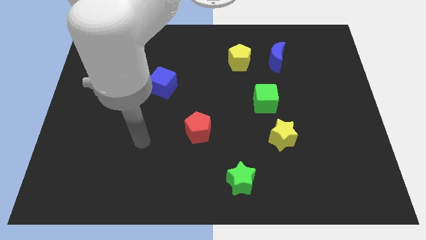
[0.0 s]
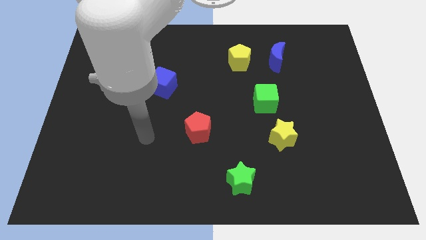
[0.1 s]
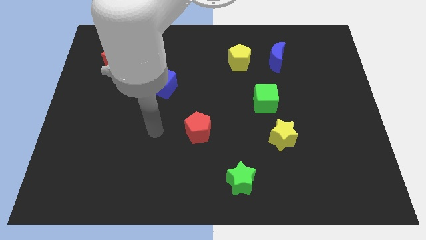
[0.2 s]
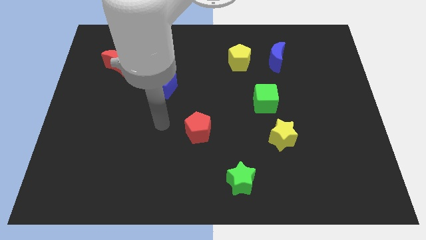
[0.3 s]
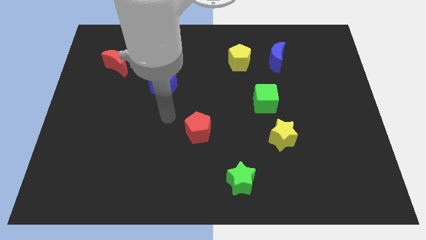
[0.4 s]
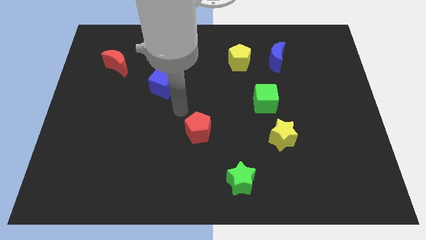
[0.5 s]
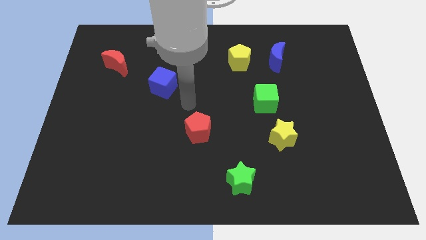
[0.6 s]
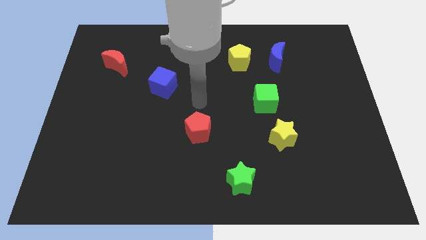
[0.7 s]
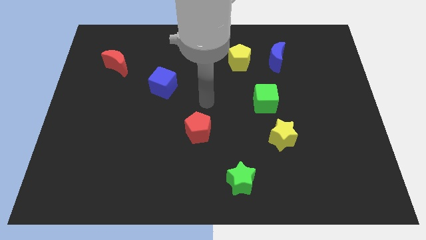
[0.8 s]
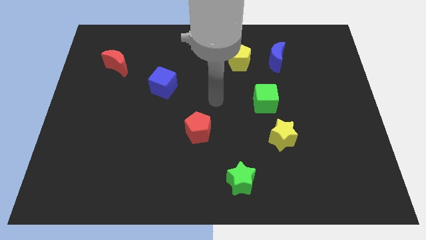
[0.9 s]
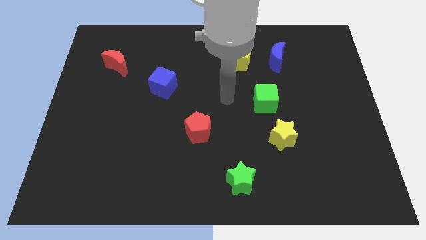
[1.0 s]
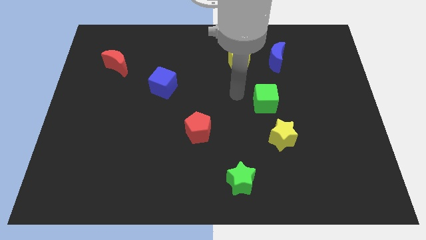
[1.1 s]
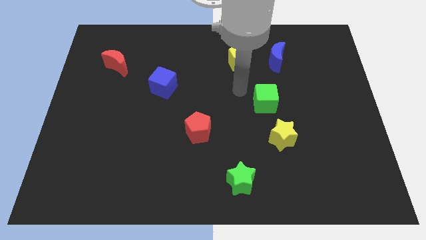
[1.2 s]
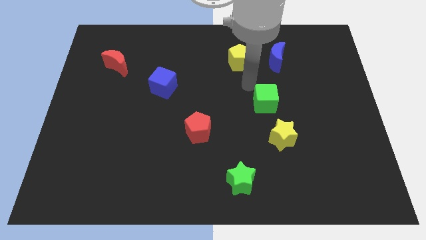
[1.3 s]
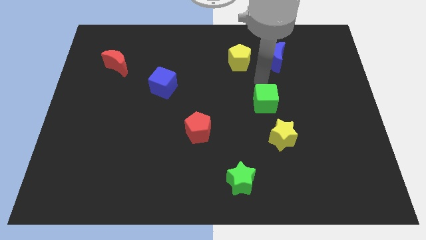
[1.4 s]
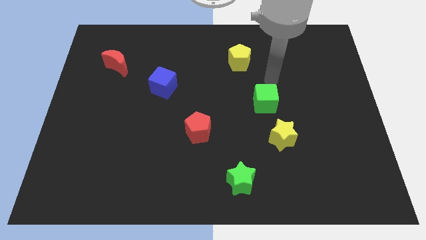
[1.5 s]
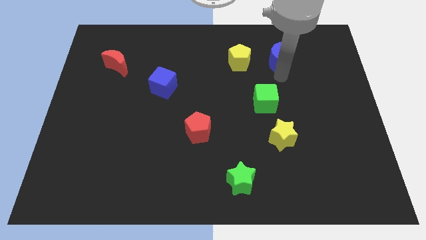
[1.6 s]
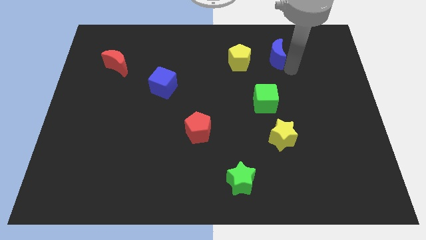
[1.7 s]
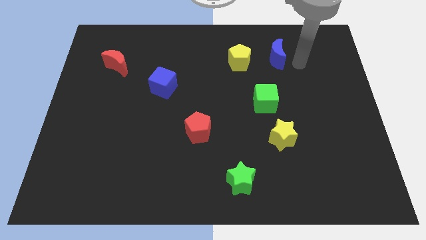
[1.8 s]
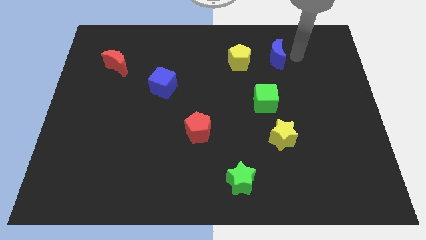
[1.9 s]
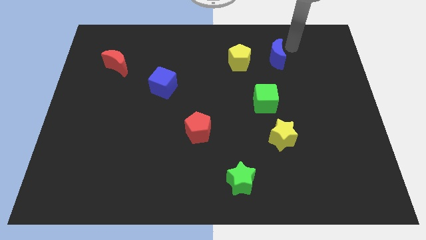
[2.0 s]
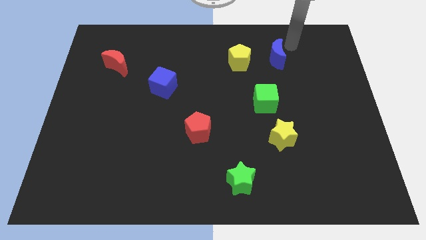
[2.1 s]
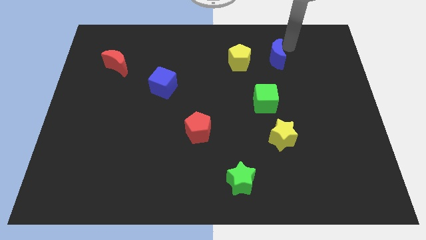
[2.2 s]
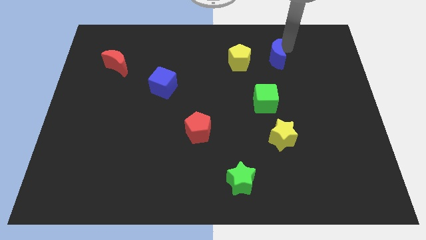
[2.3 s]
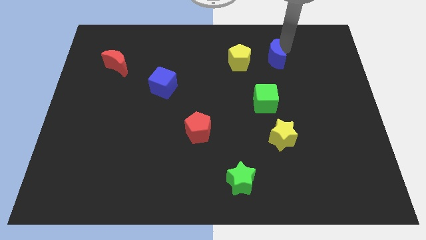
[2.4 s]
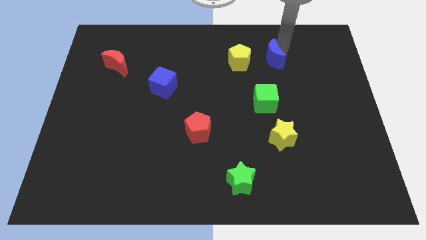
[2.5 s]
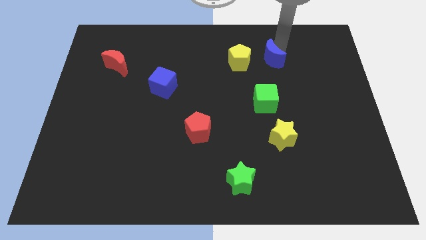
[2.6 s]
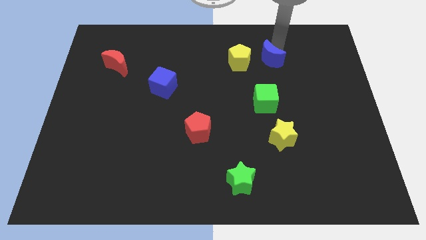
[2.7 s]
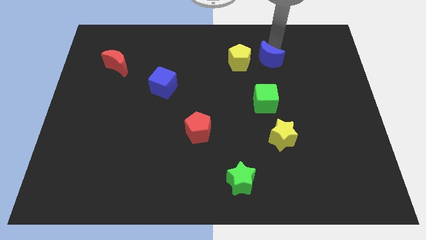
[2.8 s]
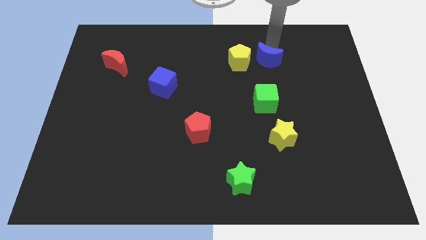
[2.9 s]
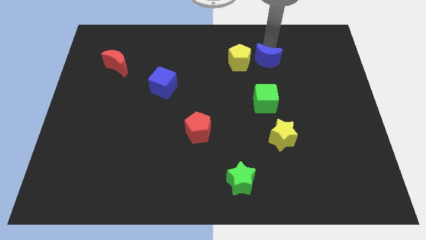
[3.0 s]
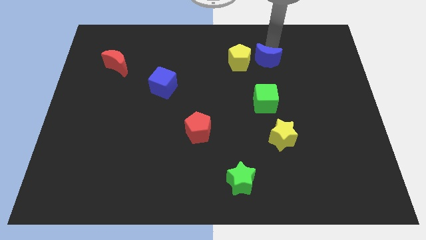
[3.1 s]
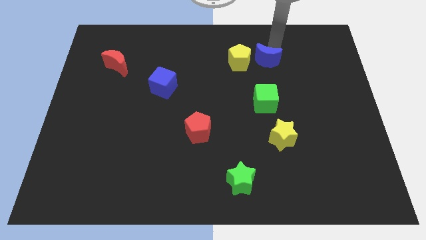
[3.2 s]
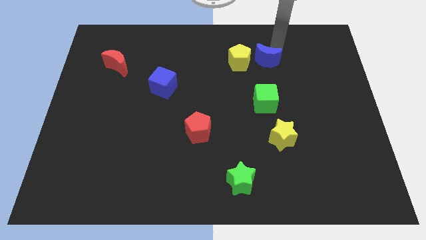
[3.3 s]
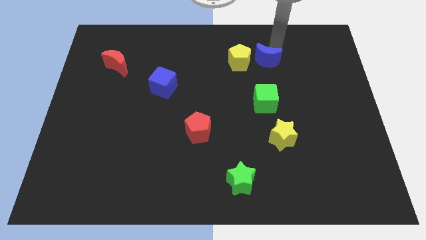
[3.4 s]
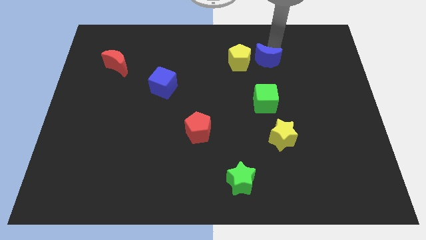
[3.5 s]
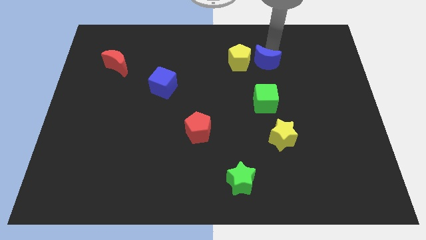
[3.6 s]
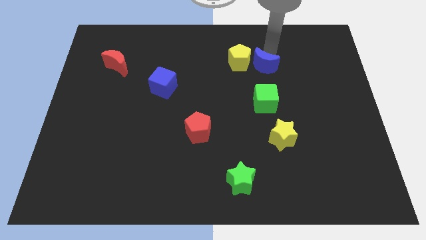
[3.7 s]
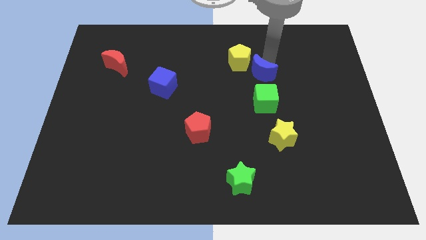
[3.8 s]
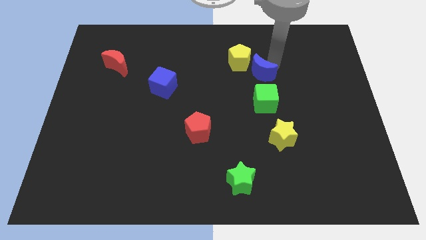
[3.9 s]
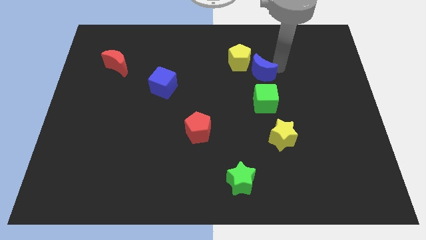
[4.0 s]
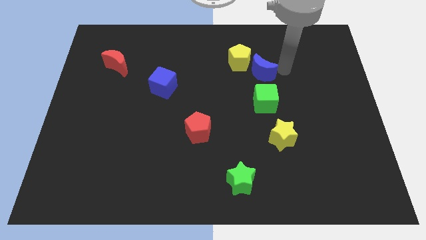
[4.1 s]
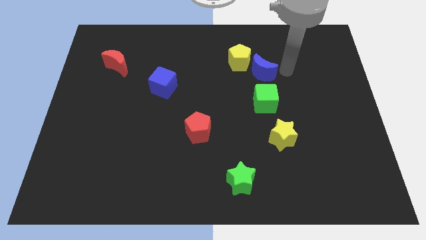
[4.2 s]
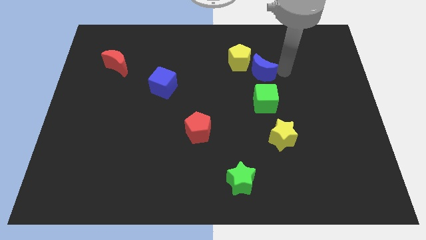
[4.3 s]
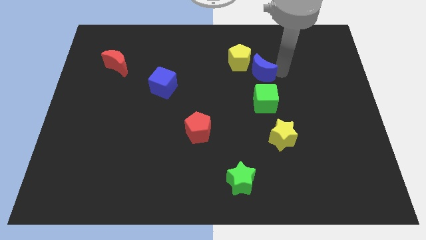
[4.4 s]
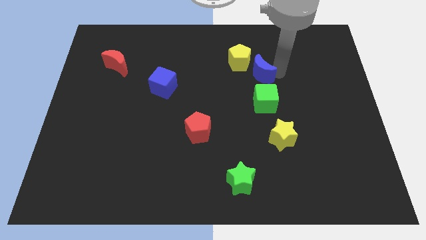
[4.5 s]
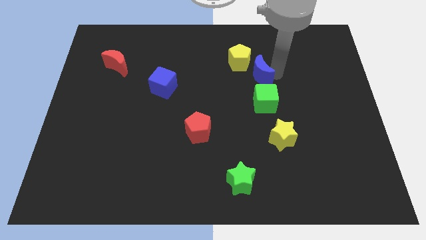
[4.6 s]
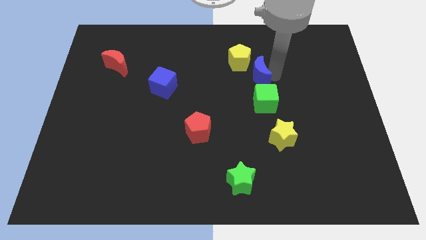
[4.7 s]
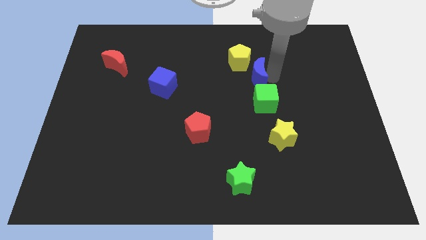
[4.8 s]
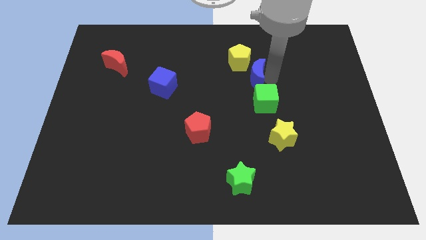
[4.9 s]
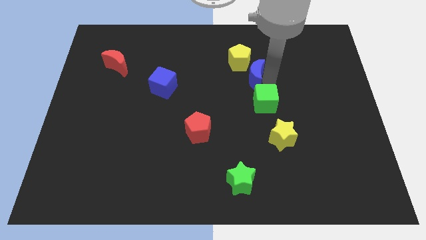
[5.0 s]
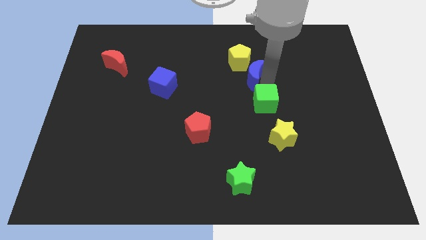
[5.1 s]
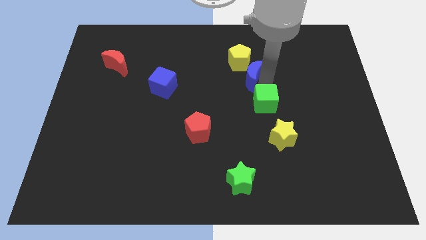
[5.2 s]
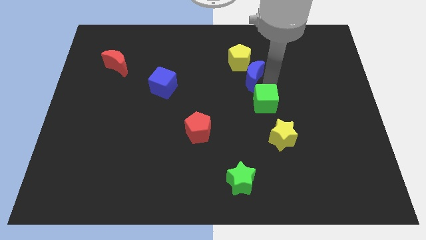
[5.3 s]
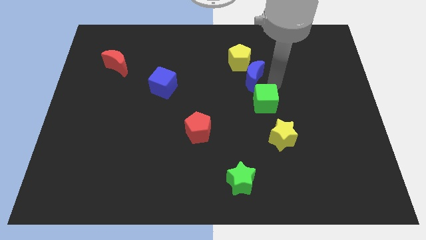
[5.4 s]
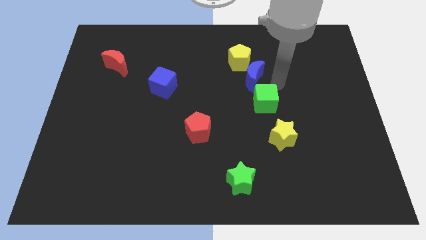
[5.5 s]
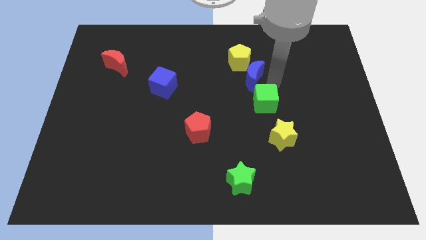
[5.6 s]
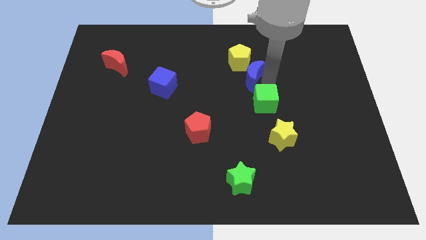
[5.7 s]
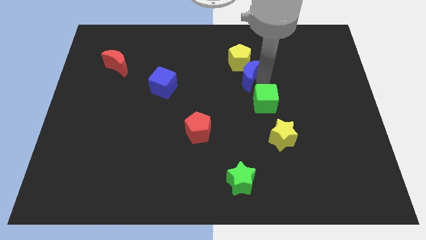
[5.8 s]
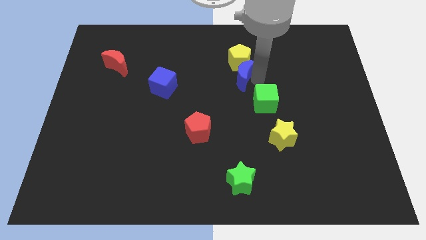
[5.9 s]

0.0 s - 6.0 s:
push the blue moon diagonally down and to the left of the yellow pentagon

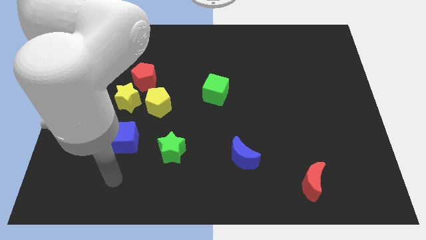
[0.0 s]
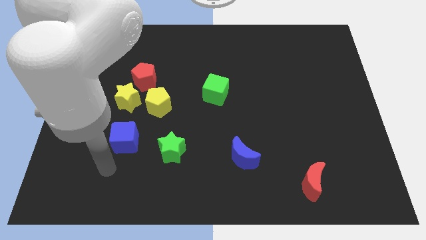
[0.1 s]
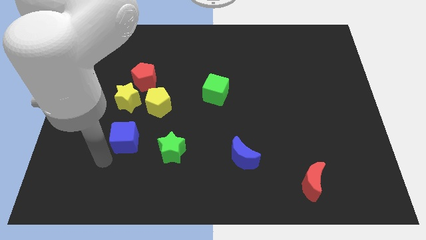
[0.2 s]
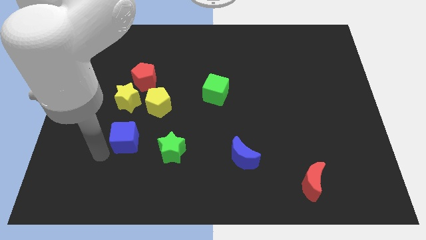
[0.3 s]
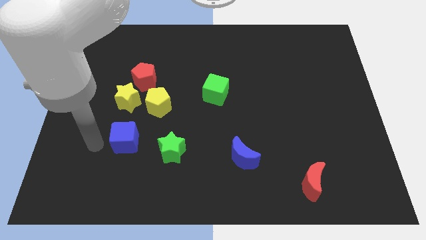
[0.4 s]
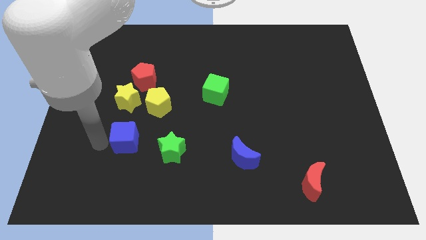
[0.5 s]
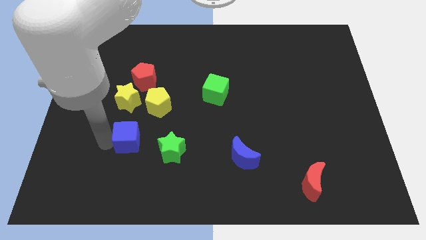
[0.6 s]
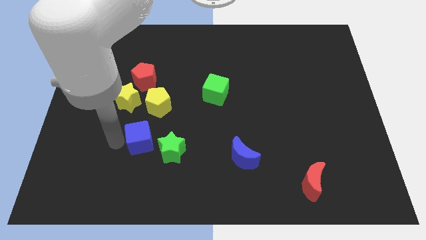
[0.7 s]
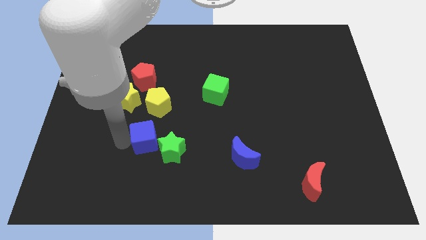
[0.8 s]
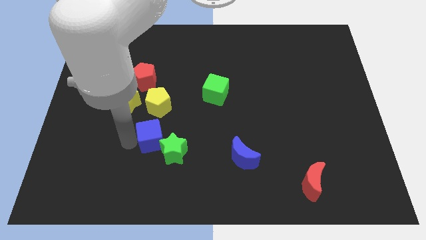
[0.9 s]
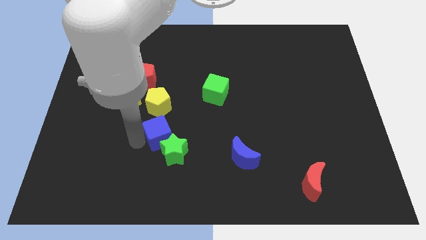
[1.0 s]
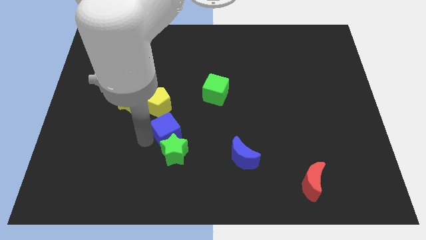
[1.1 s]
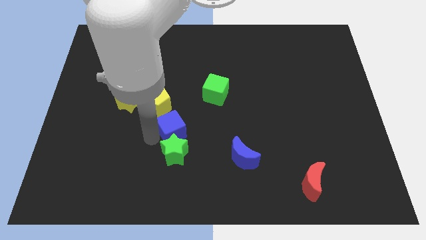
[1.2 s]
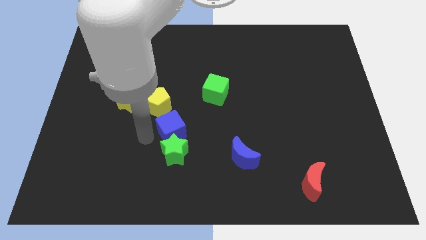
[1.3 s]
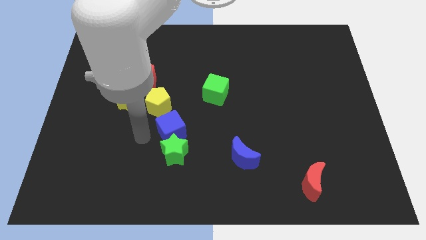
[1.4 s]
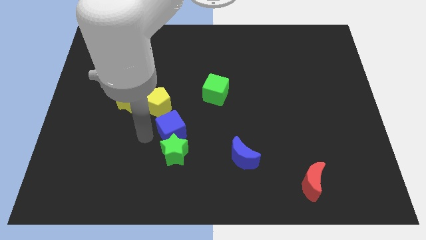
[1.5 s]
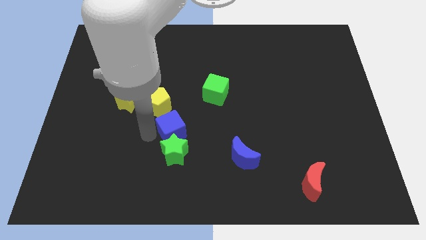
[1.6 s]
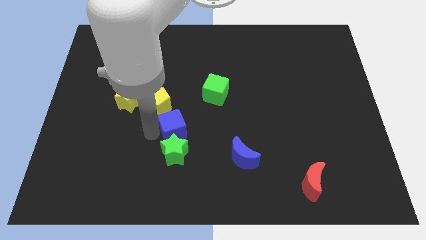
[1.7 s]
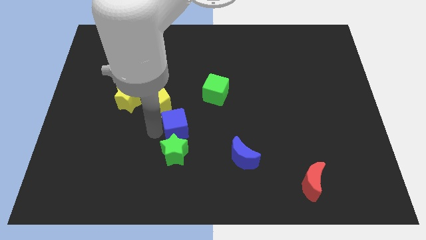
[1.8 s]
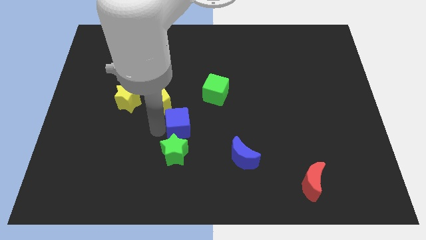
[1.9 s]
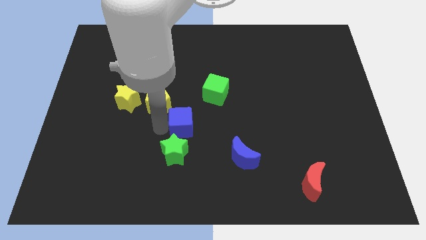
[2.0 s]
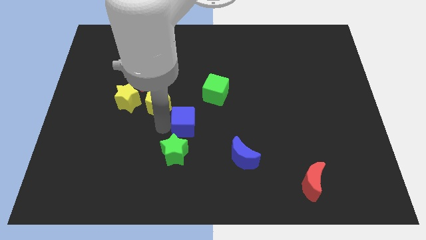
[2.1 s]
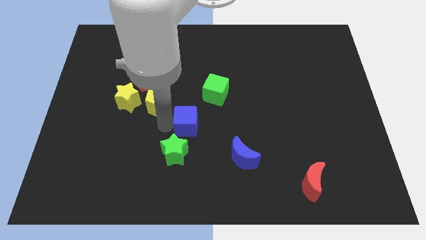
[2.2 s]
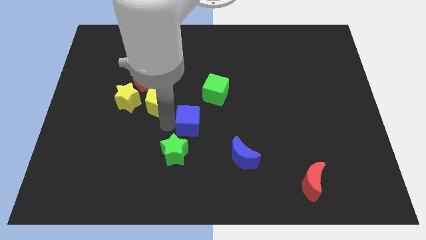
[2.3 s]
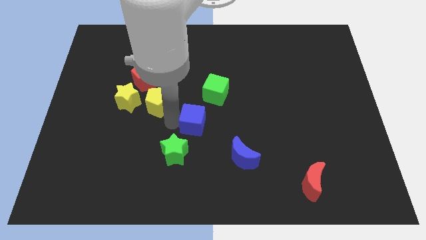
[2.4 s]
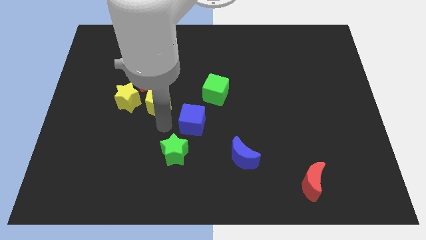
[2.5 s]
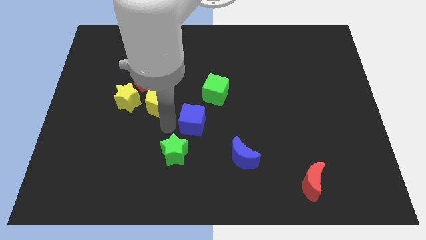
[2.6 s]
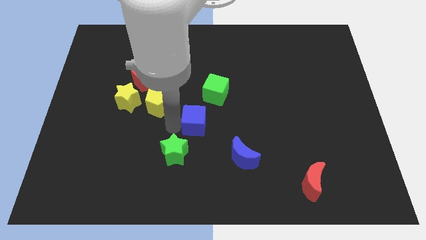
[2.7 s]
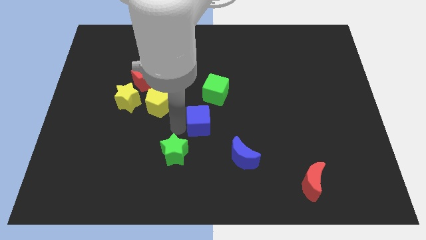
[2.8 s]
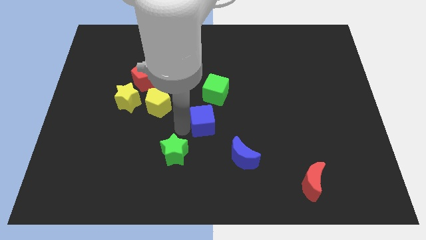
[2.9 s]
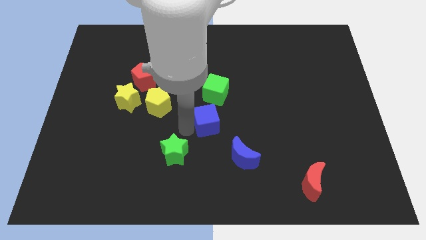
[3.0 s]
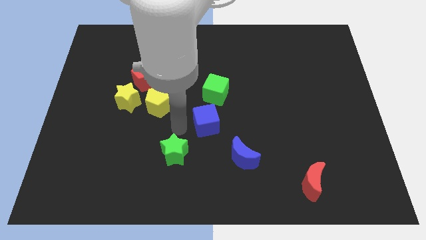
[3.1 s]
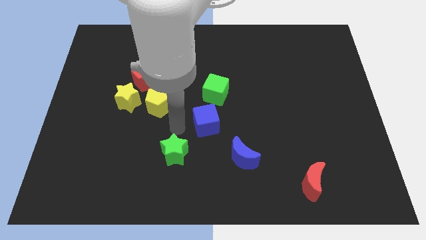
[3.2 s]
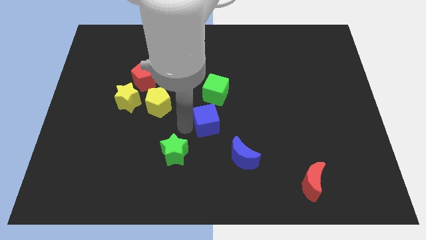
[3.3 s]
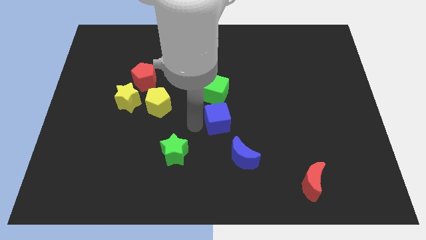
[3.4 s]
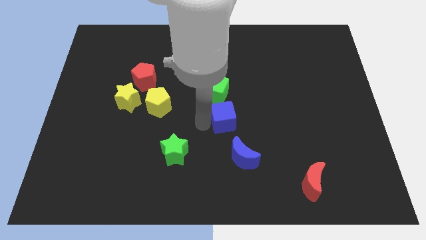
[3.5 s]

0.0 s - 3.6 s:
move the blue cube above the blue moon
